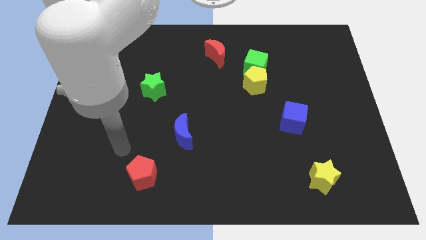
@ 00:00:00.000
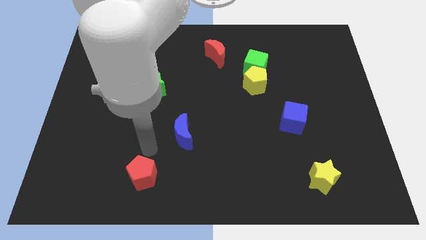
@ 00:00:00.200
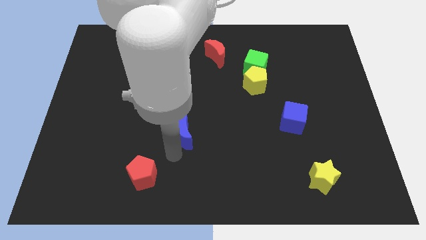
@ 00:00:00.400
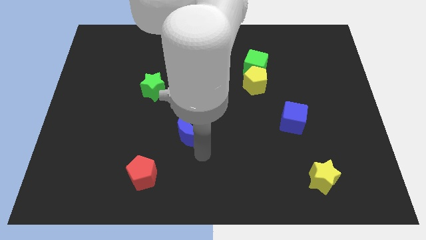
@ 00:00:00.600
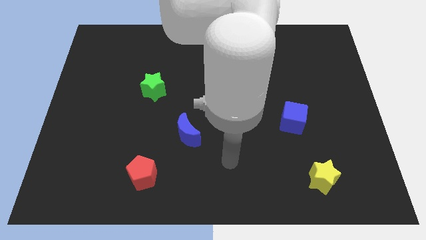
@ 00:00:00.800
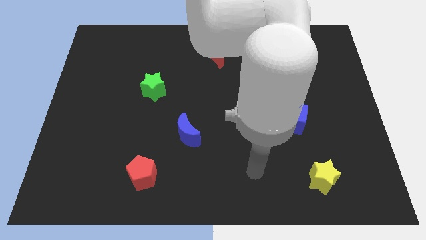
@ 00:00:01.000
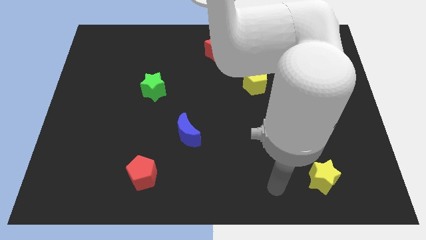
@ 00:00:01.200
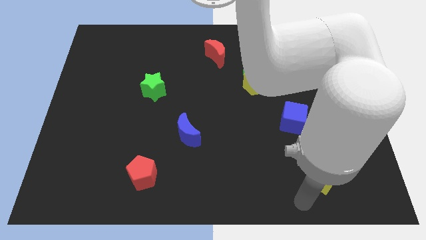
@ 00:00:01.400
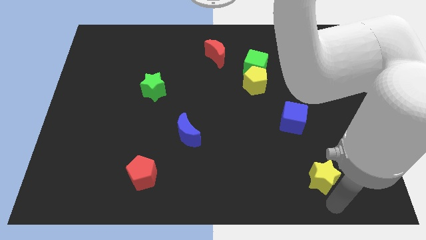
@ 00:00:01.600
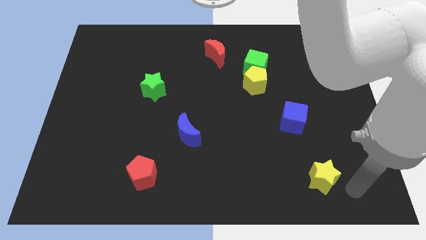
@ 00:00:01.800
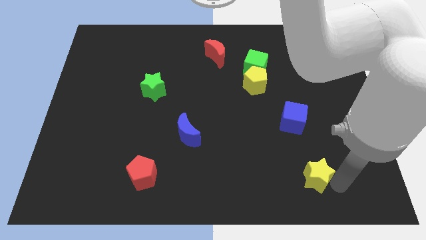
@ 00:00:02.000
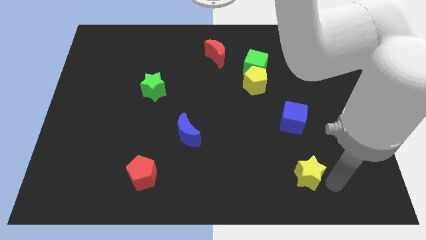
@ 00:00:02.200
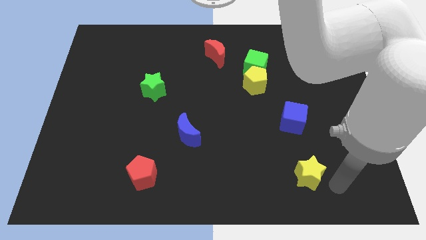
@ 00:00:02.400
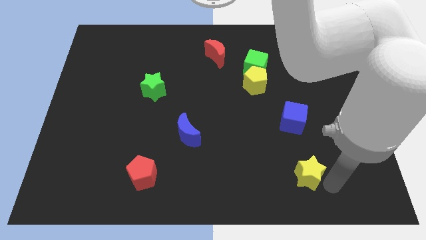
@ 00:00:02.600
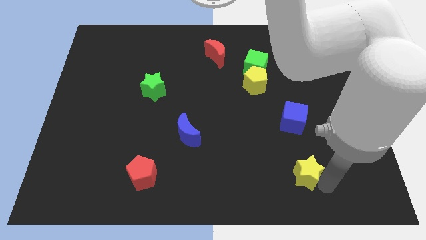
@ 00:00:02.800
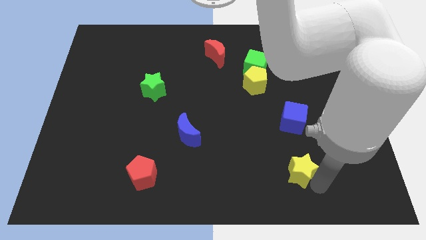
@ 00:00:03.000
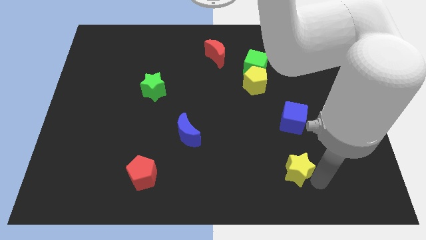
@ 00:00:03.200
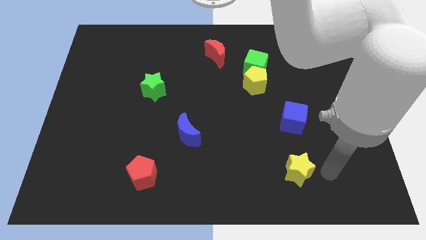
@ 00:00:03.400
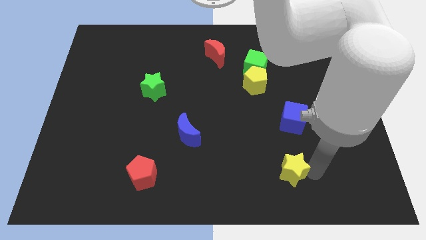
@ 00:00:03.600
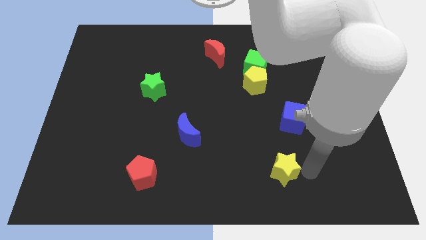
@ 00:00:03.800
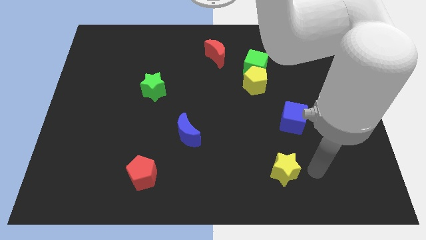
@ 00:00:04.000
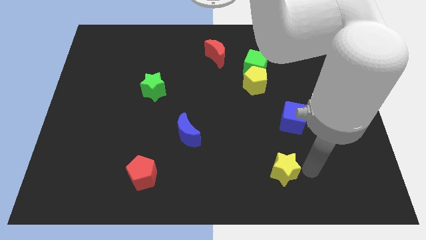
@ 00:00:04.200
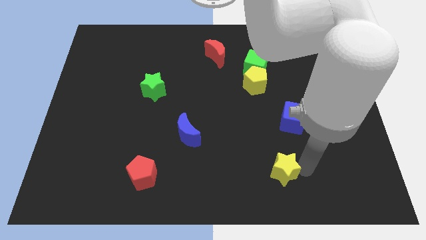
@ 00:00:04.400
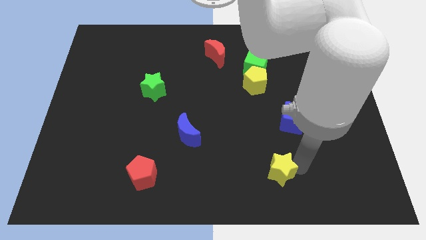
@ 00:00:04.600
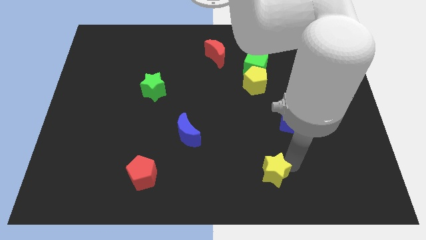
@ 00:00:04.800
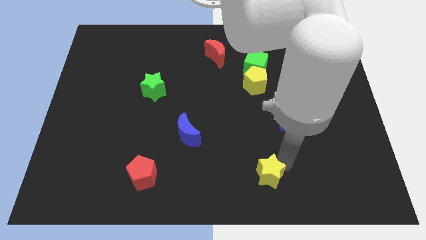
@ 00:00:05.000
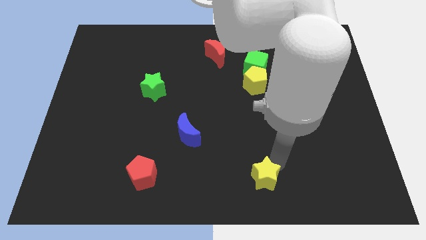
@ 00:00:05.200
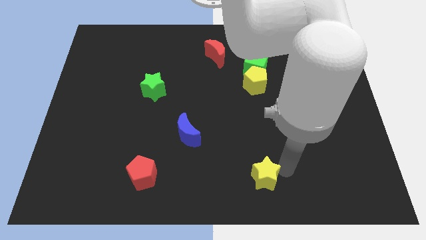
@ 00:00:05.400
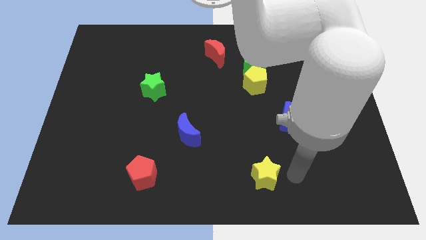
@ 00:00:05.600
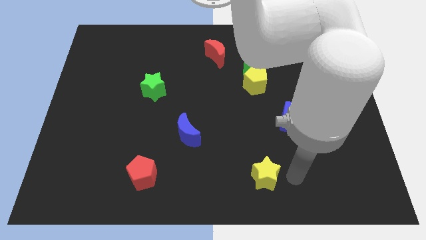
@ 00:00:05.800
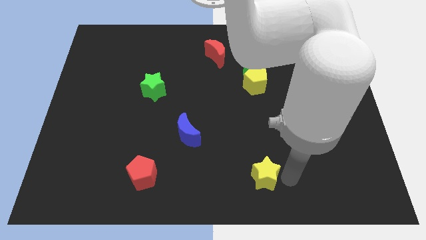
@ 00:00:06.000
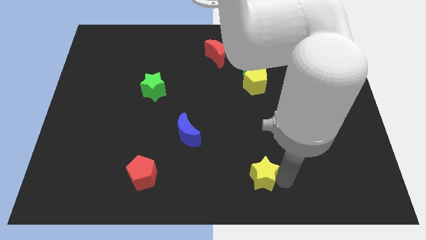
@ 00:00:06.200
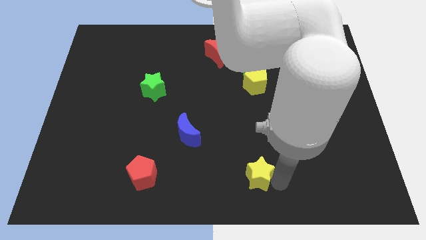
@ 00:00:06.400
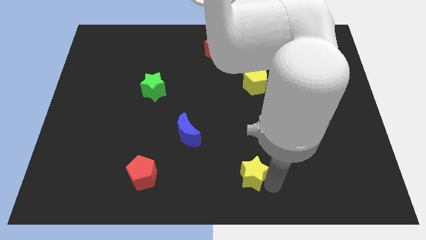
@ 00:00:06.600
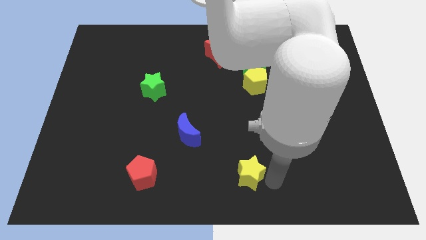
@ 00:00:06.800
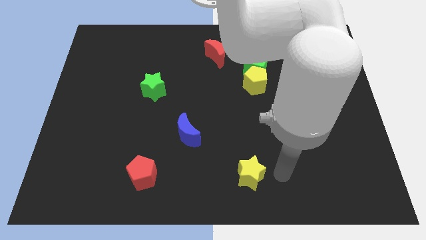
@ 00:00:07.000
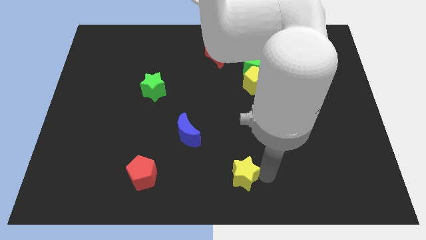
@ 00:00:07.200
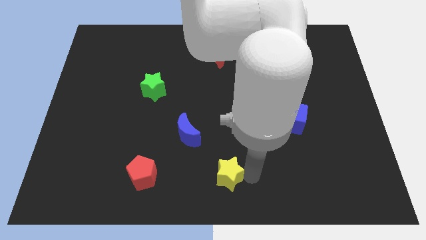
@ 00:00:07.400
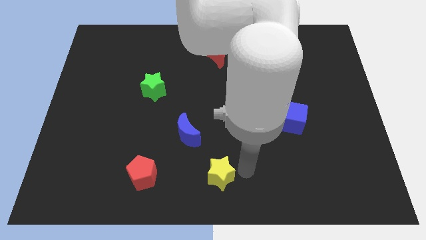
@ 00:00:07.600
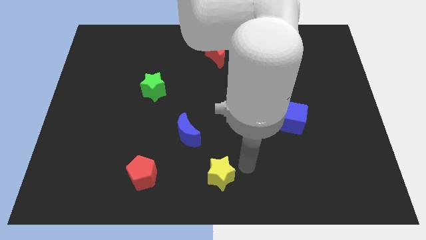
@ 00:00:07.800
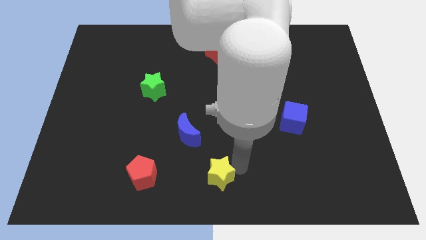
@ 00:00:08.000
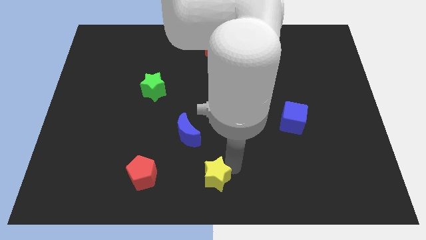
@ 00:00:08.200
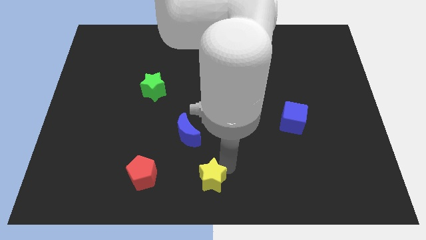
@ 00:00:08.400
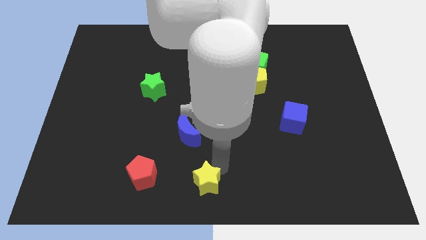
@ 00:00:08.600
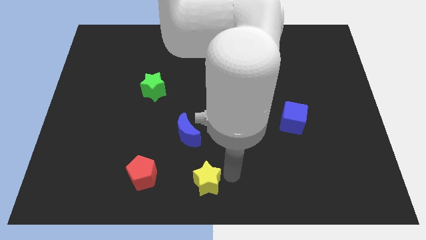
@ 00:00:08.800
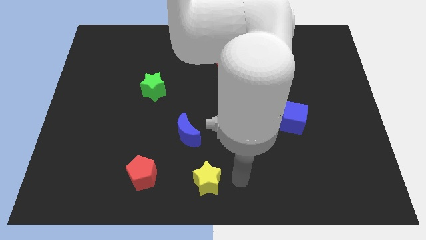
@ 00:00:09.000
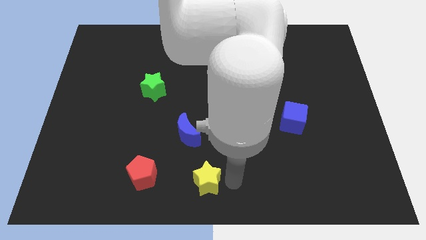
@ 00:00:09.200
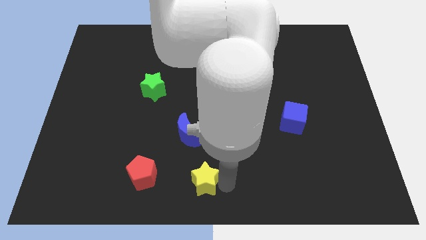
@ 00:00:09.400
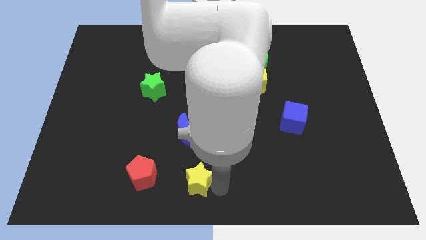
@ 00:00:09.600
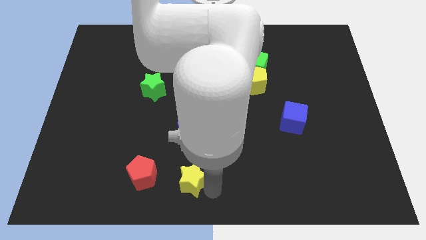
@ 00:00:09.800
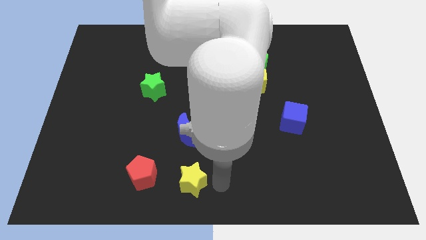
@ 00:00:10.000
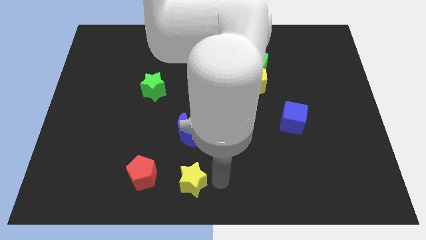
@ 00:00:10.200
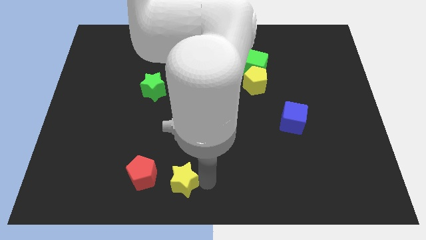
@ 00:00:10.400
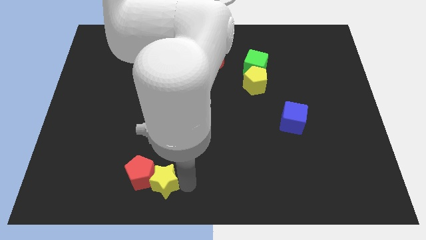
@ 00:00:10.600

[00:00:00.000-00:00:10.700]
slide the yellow star towards the red pentagon

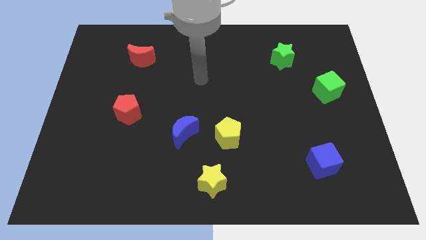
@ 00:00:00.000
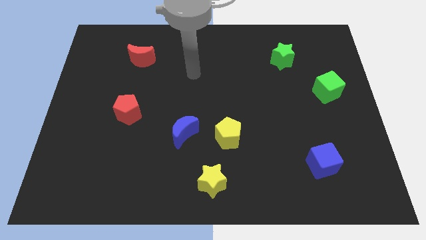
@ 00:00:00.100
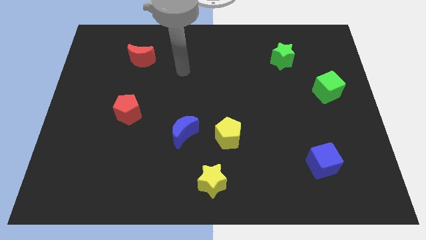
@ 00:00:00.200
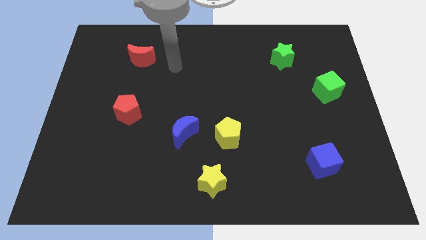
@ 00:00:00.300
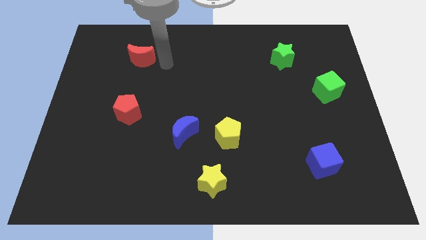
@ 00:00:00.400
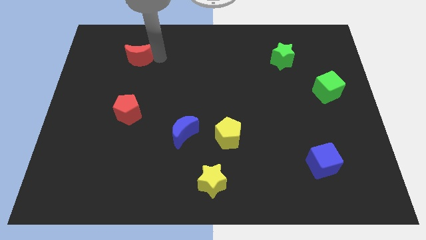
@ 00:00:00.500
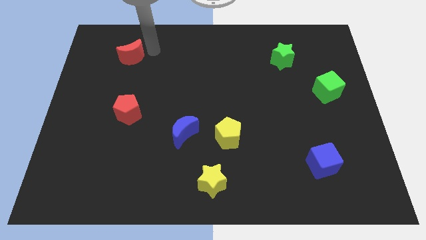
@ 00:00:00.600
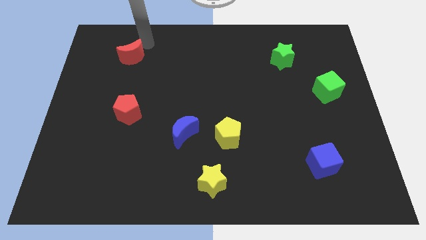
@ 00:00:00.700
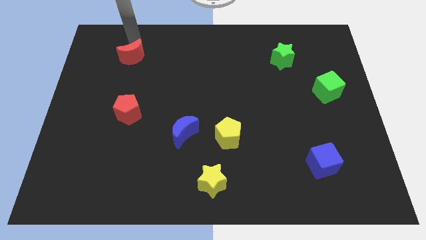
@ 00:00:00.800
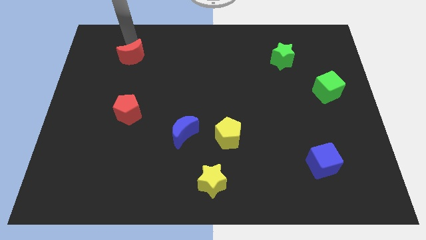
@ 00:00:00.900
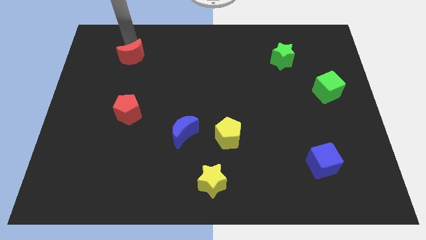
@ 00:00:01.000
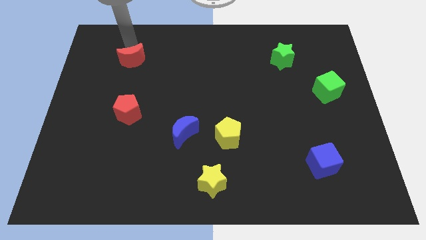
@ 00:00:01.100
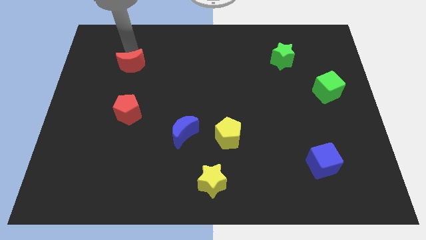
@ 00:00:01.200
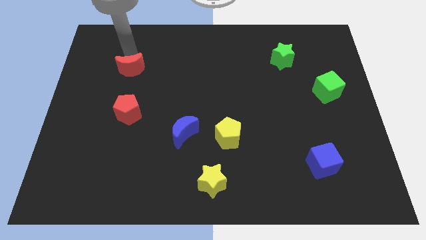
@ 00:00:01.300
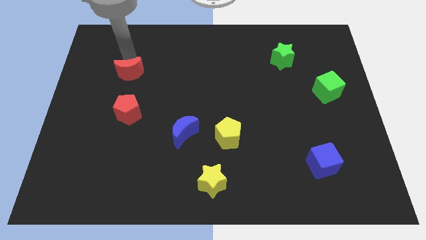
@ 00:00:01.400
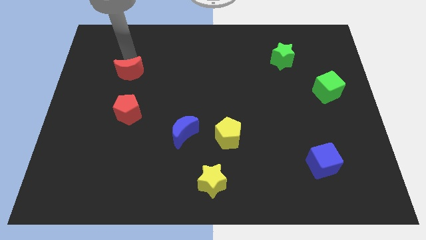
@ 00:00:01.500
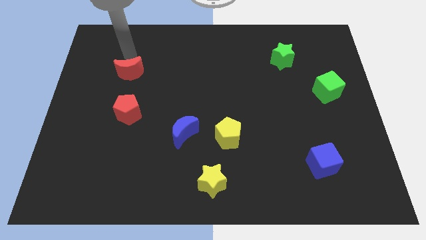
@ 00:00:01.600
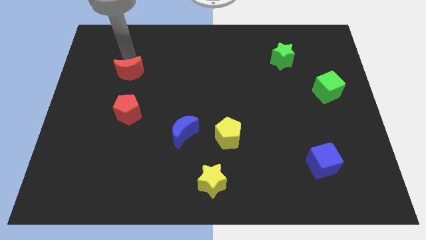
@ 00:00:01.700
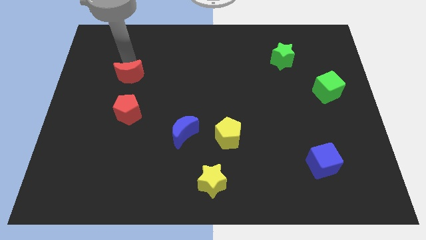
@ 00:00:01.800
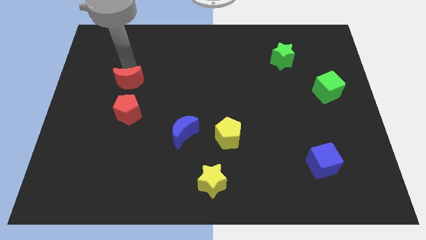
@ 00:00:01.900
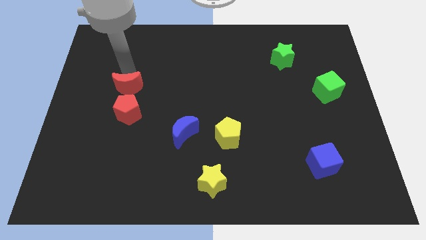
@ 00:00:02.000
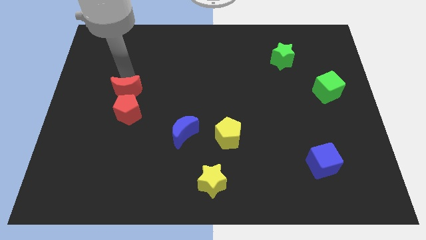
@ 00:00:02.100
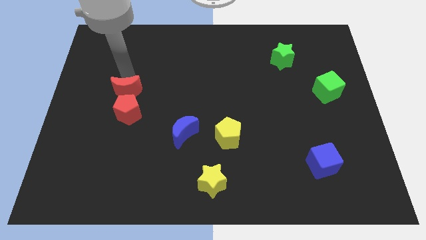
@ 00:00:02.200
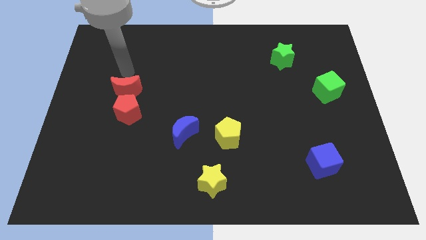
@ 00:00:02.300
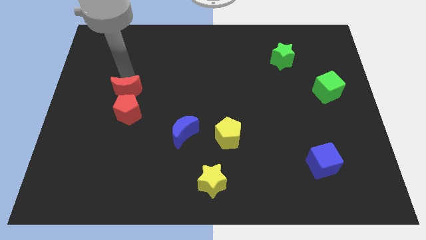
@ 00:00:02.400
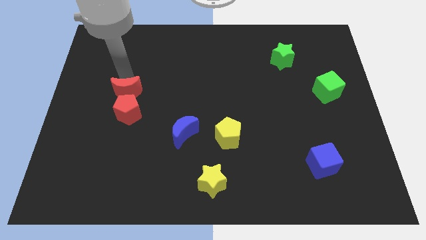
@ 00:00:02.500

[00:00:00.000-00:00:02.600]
push the red moon to the red pentagon
